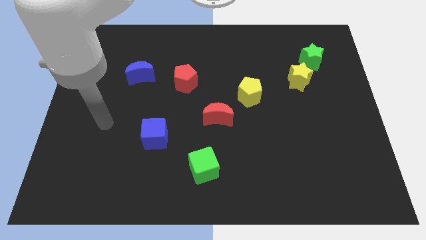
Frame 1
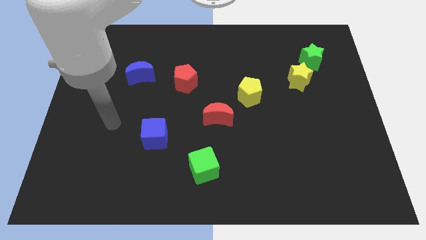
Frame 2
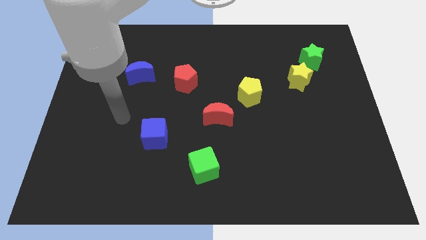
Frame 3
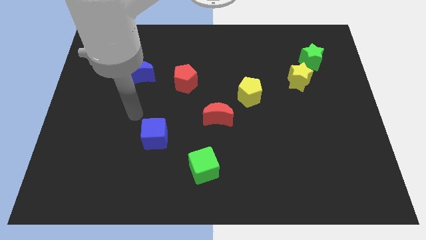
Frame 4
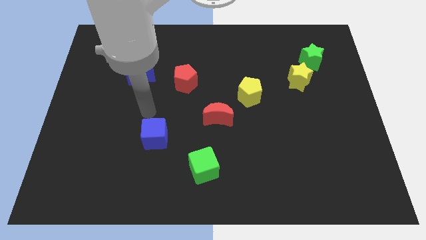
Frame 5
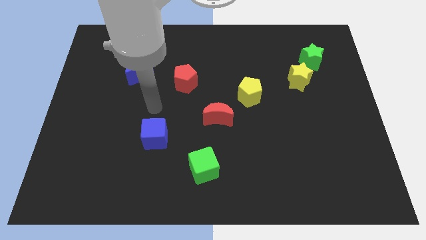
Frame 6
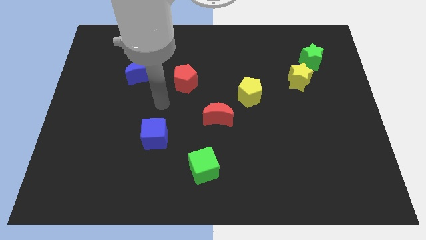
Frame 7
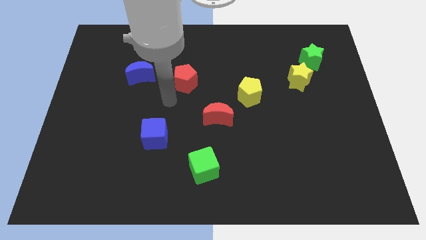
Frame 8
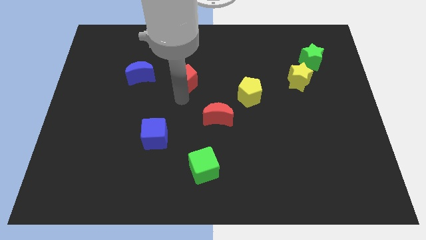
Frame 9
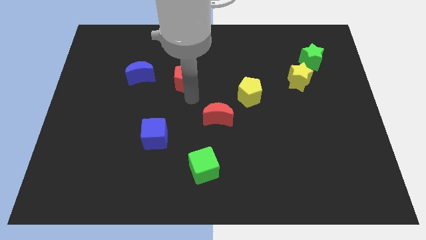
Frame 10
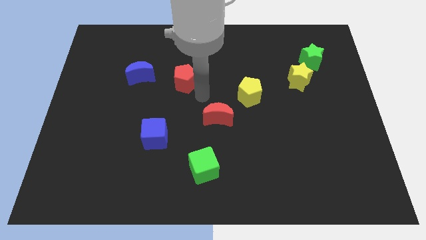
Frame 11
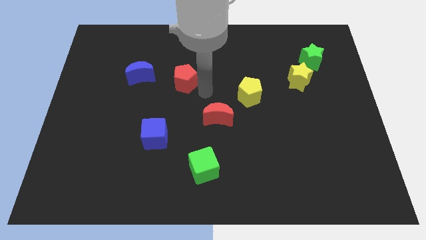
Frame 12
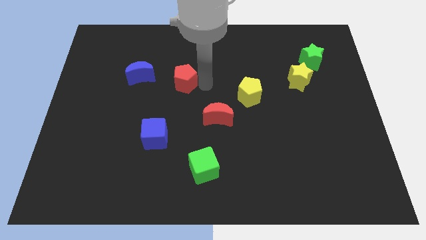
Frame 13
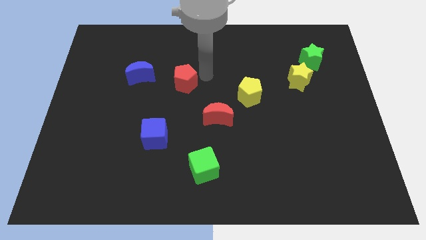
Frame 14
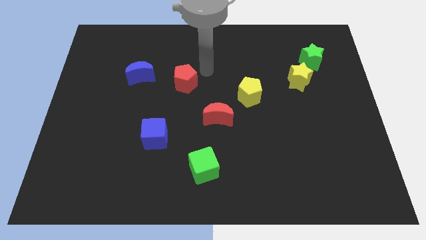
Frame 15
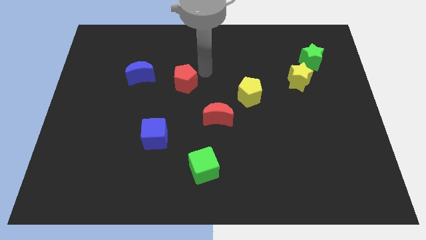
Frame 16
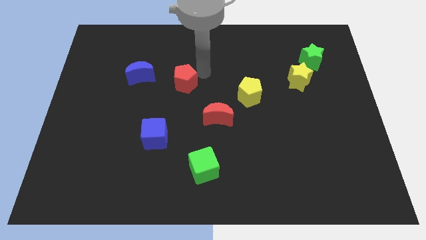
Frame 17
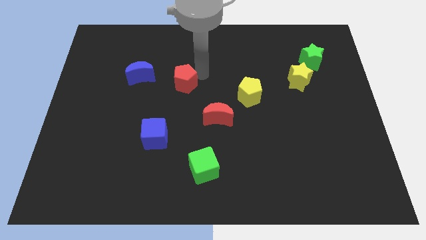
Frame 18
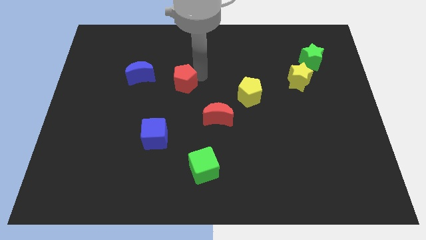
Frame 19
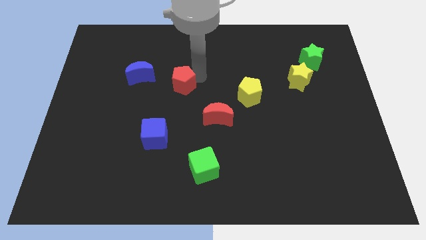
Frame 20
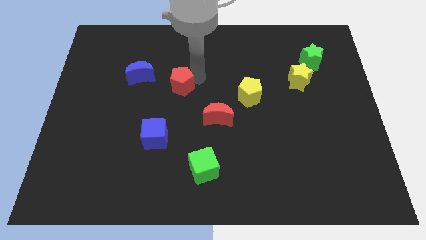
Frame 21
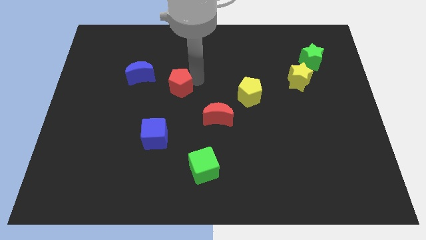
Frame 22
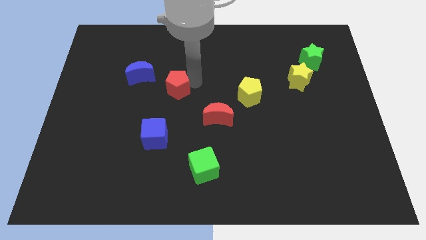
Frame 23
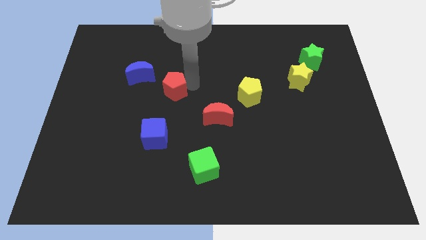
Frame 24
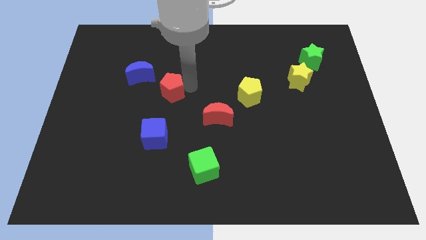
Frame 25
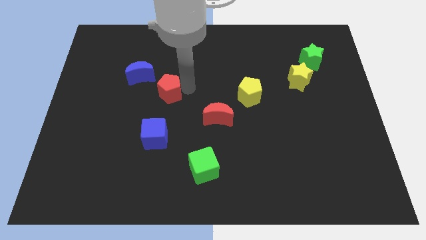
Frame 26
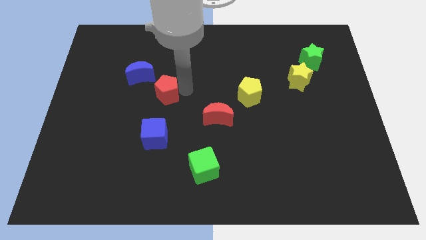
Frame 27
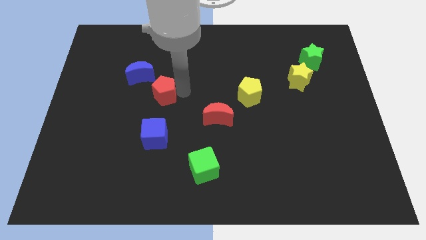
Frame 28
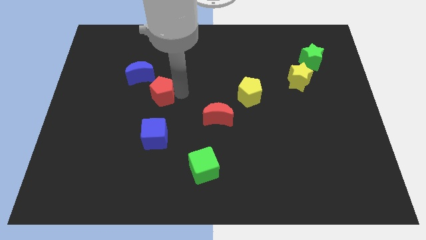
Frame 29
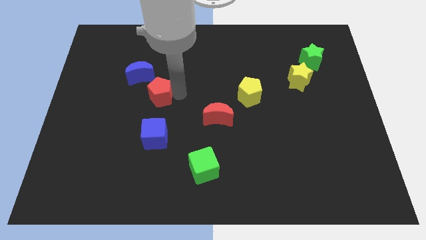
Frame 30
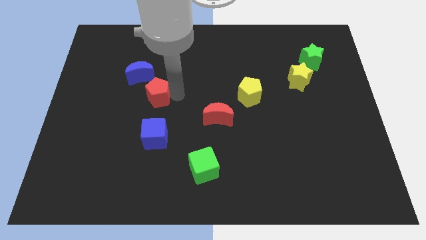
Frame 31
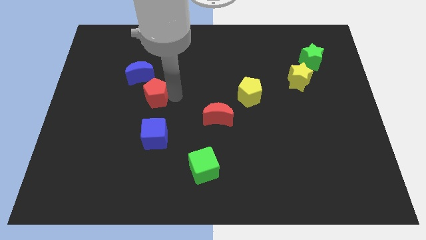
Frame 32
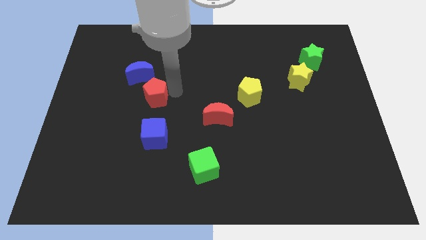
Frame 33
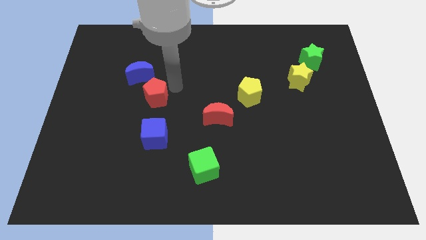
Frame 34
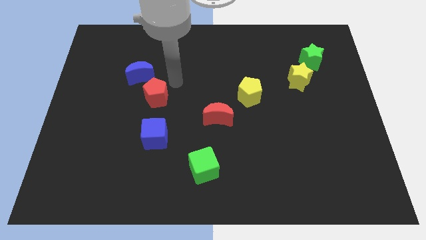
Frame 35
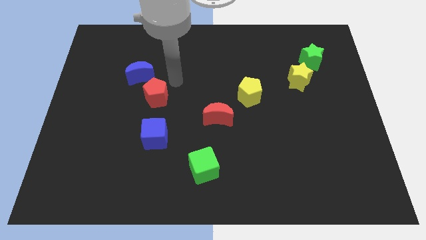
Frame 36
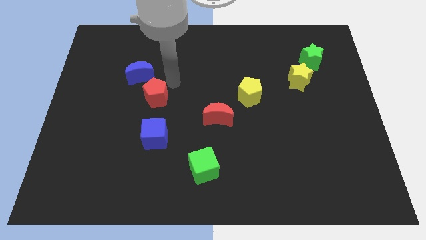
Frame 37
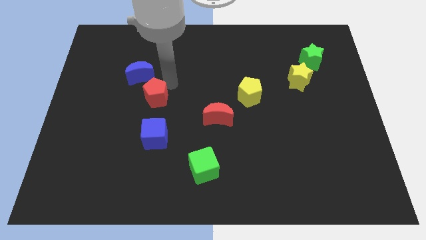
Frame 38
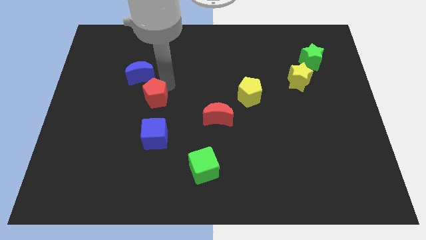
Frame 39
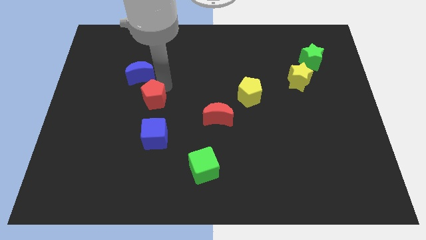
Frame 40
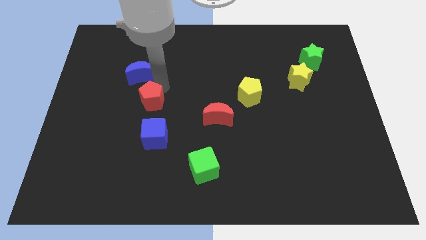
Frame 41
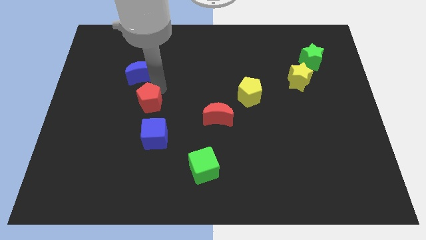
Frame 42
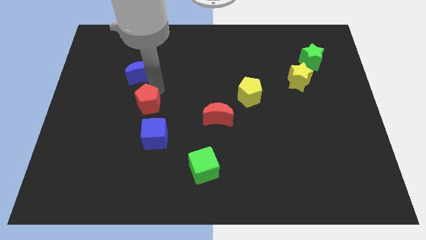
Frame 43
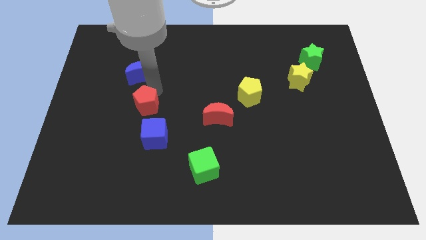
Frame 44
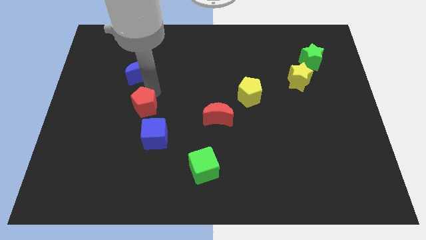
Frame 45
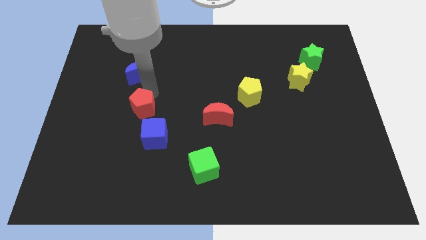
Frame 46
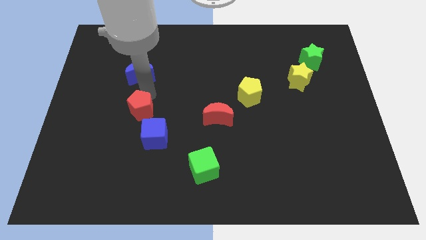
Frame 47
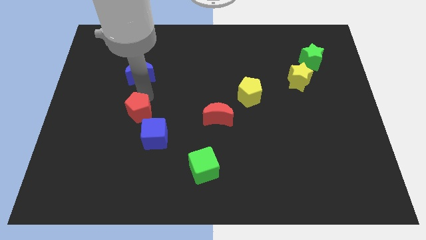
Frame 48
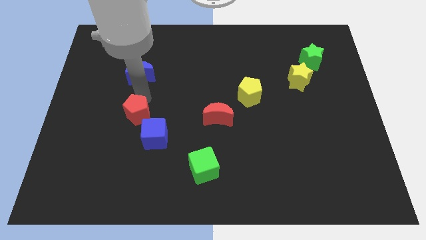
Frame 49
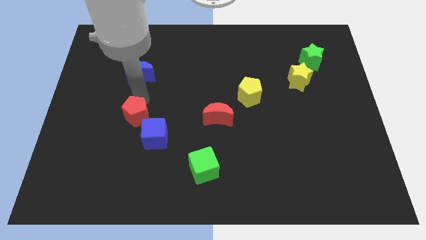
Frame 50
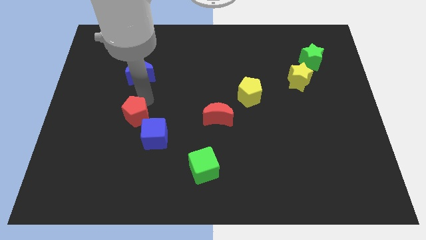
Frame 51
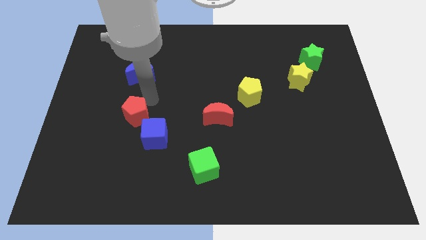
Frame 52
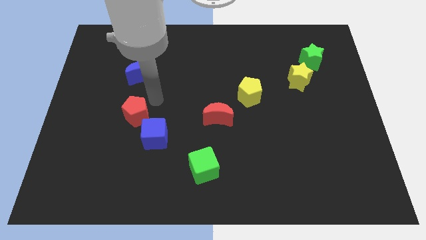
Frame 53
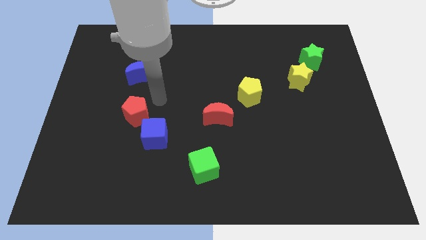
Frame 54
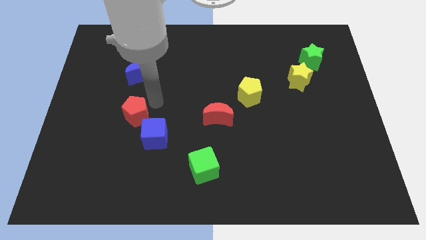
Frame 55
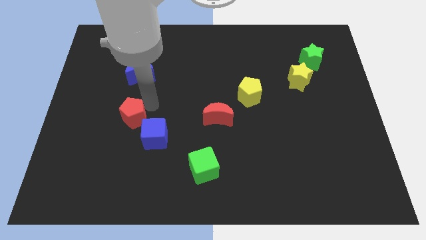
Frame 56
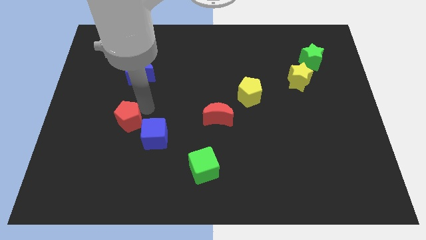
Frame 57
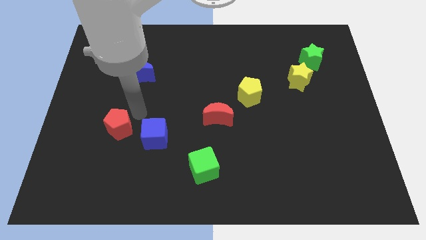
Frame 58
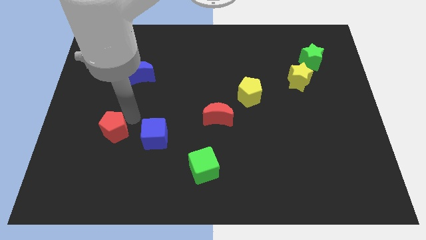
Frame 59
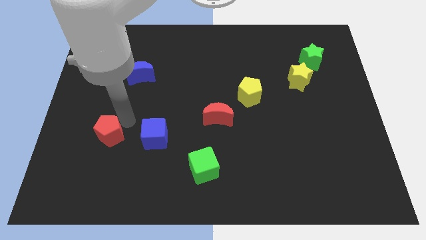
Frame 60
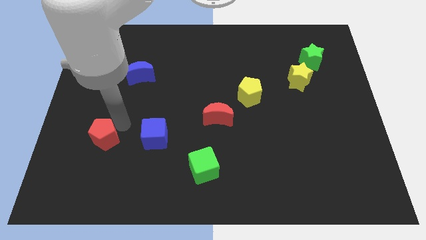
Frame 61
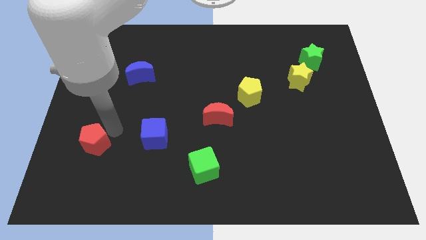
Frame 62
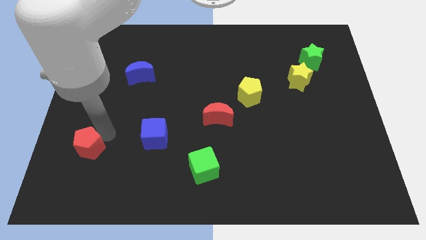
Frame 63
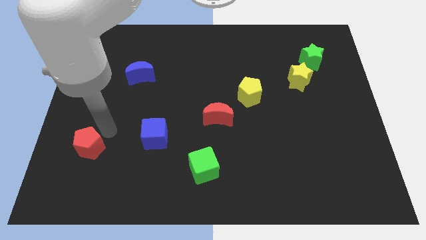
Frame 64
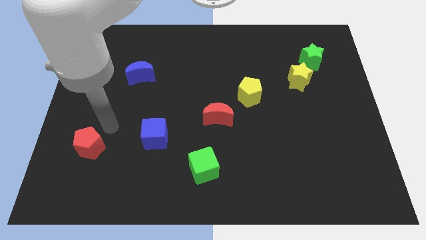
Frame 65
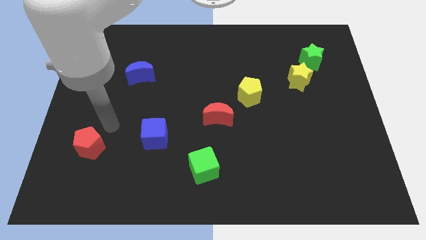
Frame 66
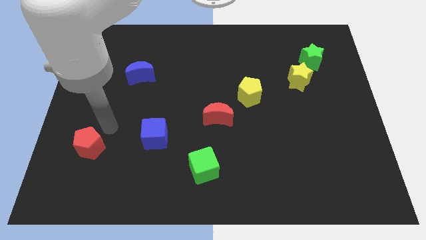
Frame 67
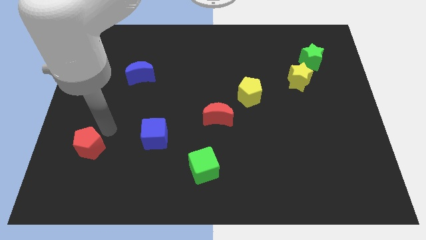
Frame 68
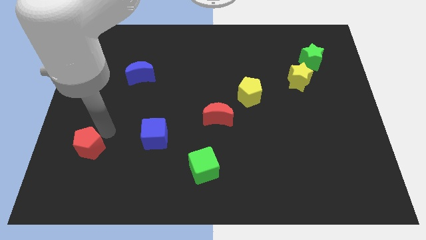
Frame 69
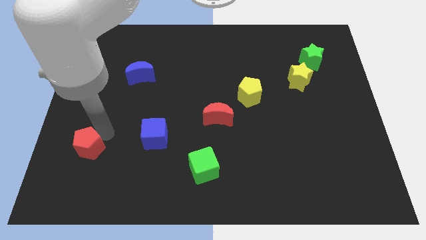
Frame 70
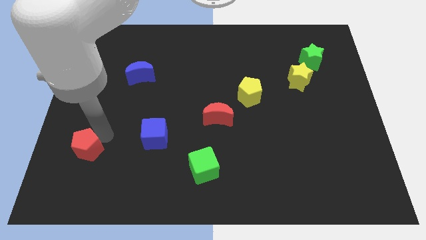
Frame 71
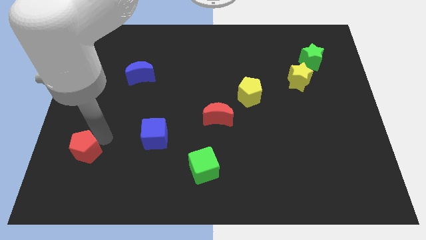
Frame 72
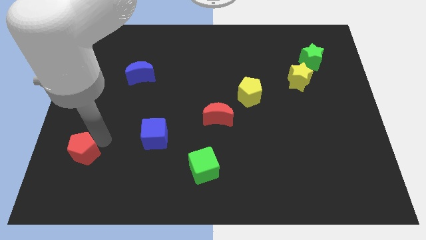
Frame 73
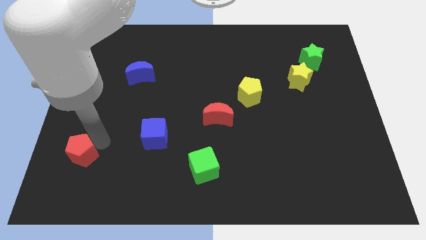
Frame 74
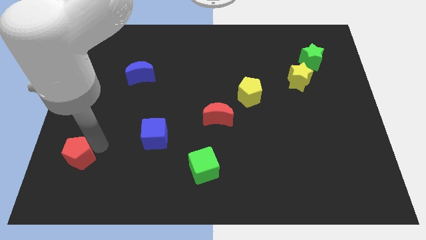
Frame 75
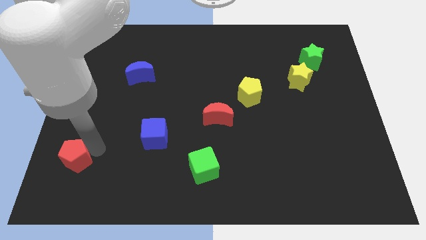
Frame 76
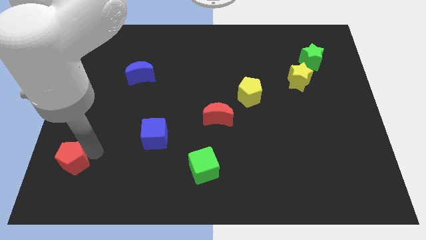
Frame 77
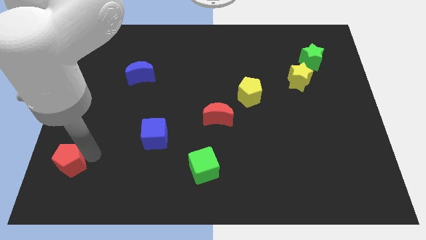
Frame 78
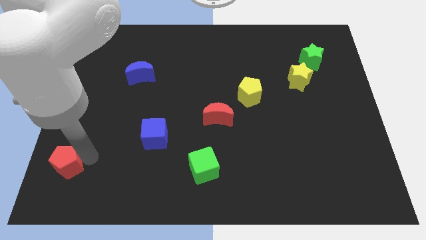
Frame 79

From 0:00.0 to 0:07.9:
move the red pentagon to the lower left corner
